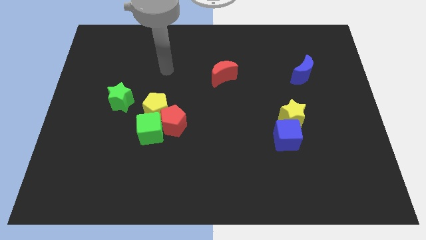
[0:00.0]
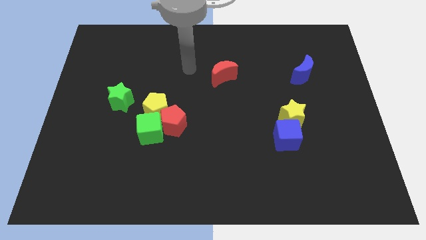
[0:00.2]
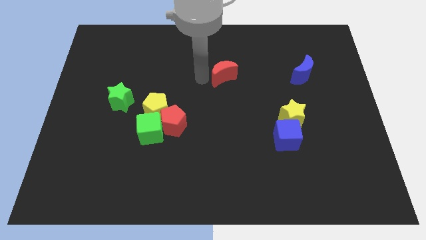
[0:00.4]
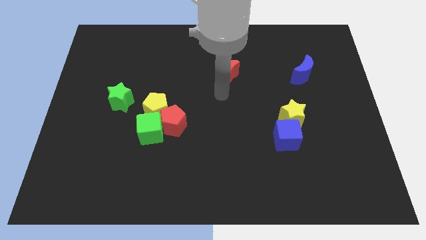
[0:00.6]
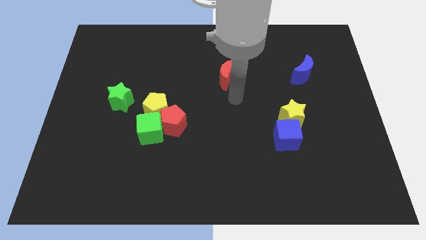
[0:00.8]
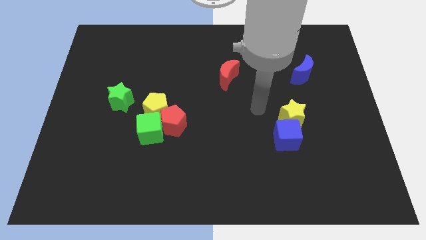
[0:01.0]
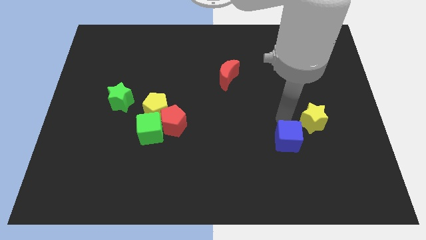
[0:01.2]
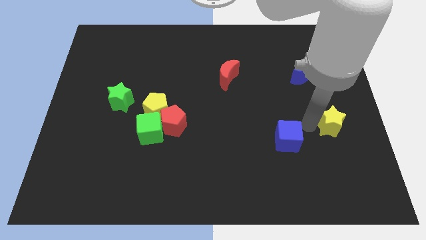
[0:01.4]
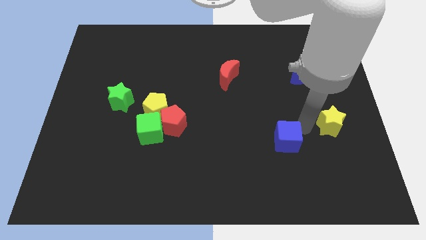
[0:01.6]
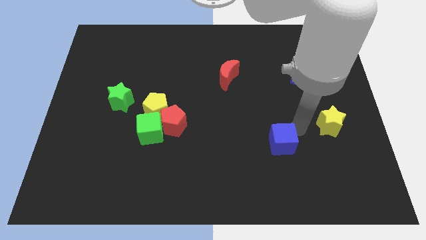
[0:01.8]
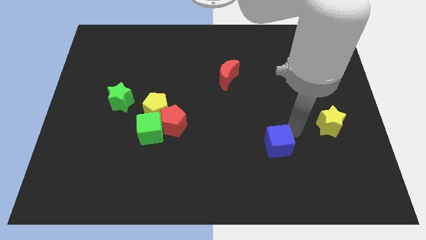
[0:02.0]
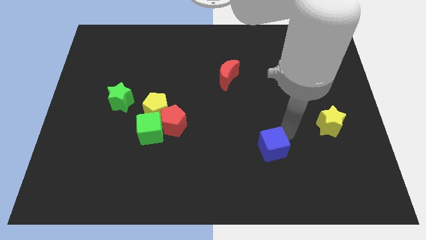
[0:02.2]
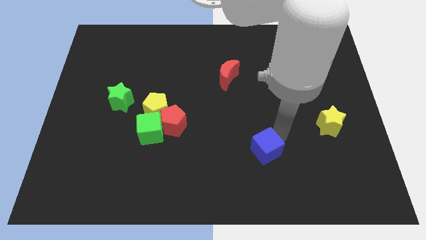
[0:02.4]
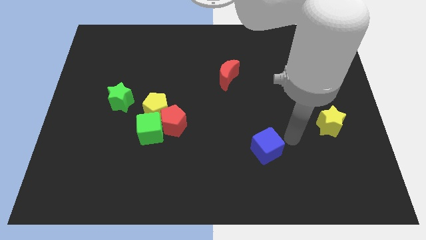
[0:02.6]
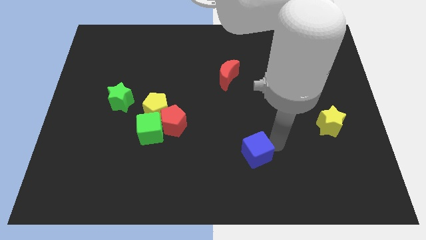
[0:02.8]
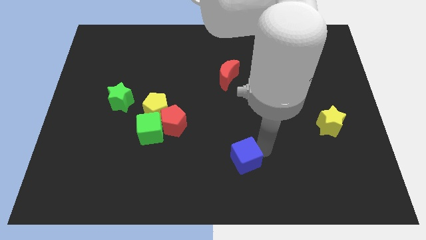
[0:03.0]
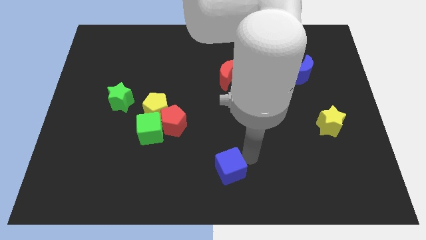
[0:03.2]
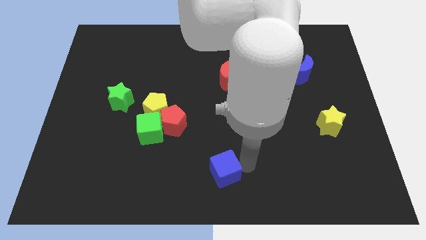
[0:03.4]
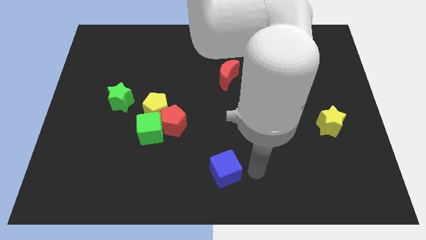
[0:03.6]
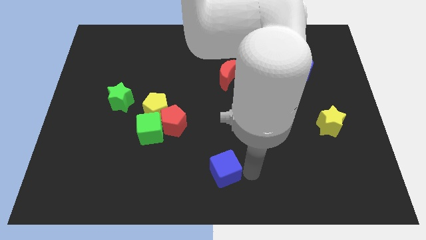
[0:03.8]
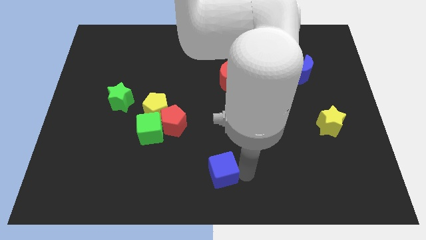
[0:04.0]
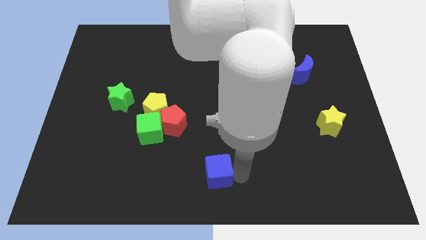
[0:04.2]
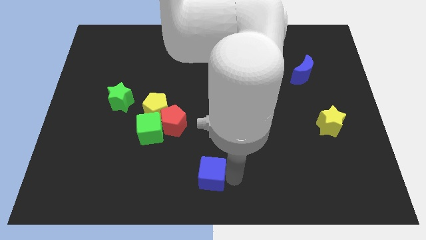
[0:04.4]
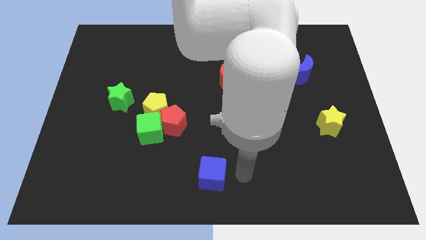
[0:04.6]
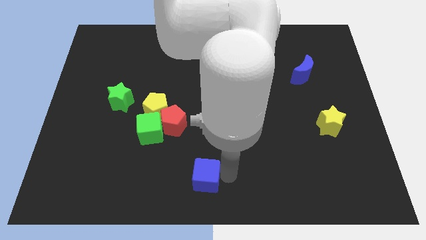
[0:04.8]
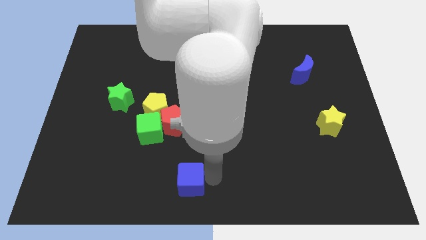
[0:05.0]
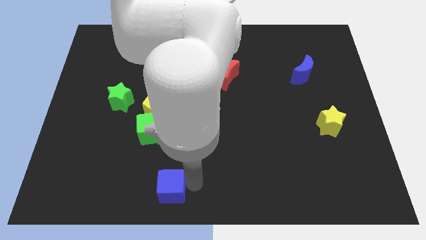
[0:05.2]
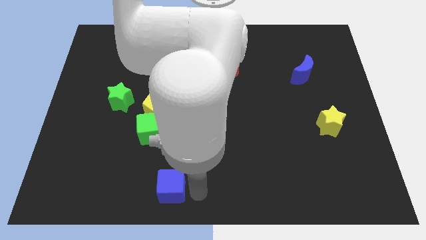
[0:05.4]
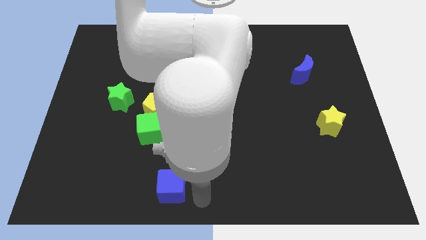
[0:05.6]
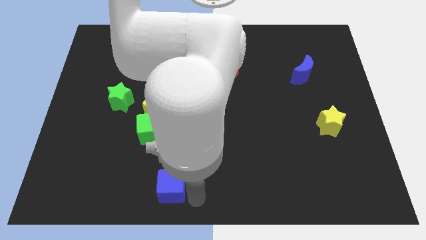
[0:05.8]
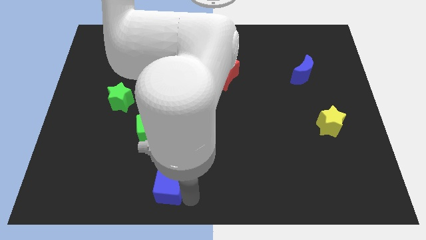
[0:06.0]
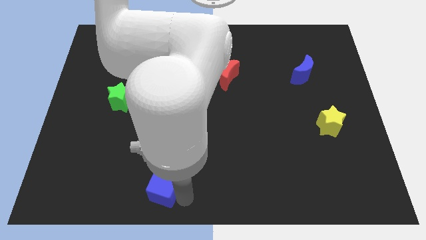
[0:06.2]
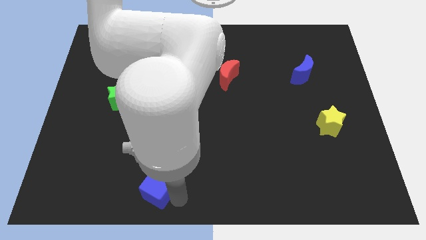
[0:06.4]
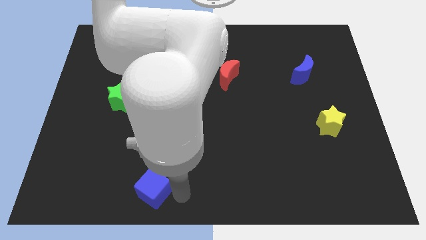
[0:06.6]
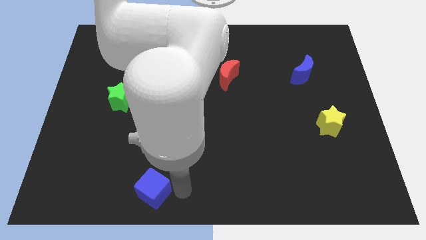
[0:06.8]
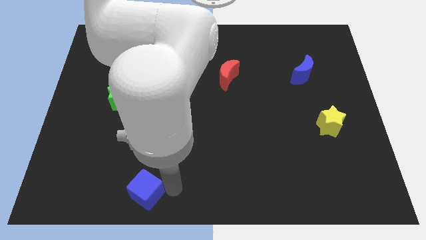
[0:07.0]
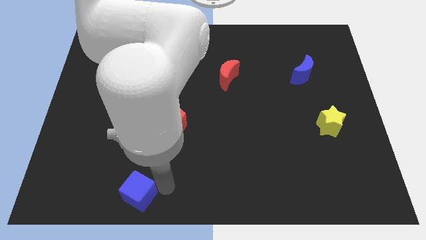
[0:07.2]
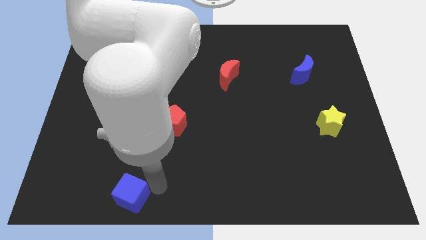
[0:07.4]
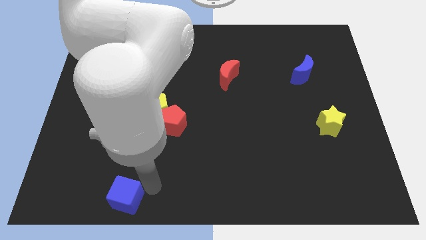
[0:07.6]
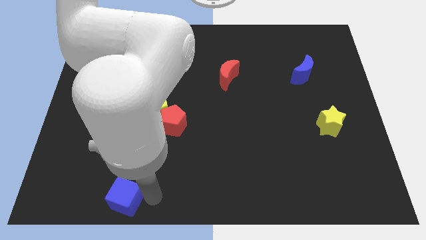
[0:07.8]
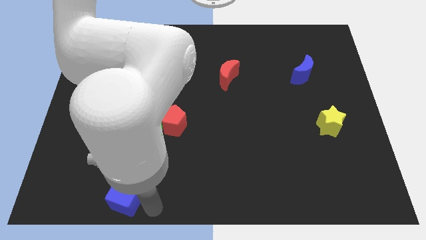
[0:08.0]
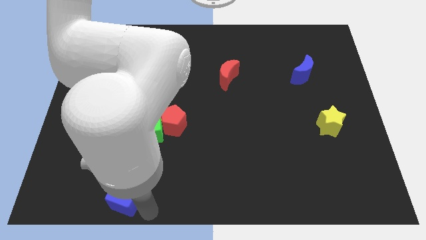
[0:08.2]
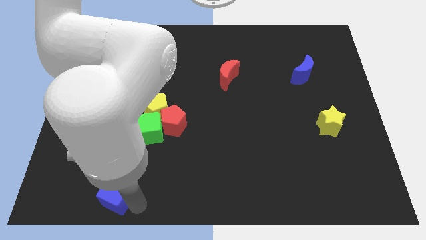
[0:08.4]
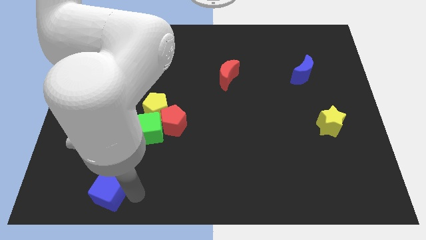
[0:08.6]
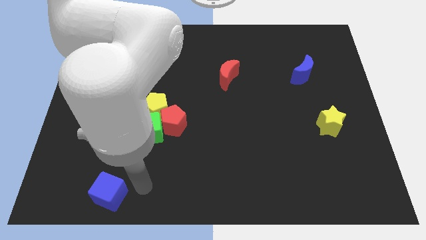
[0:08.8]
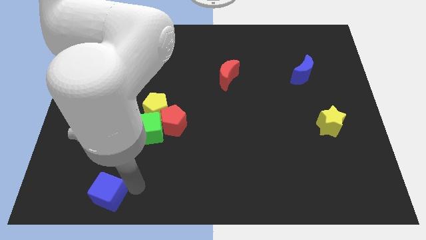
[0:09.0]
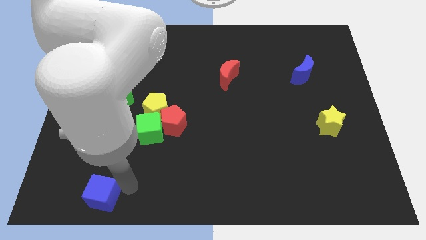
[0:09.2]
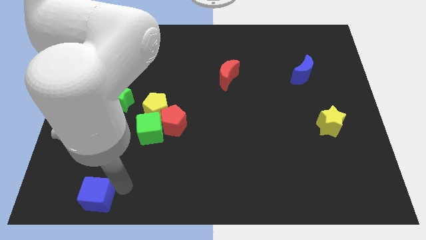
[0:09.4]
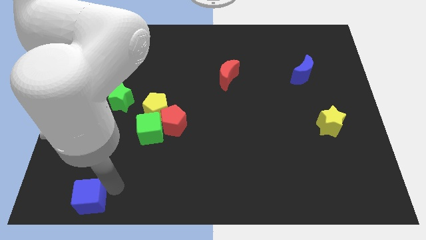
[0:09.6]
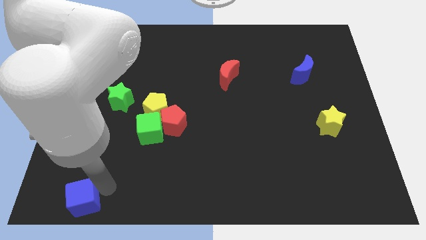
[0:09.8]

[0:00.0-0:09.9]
put the blue cube to the bottom left

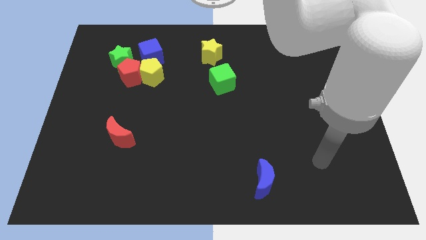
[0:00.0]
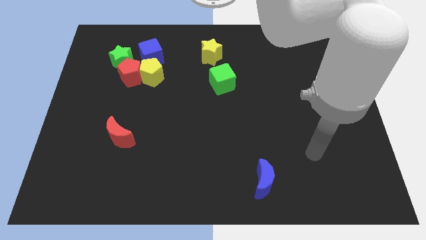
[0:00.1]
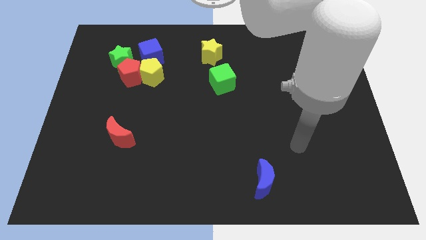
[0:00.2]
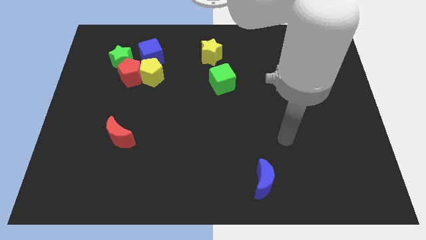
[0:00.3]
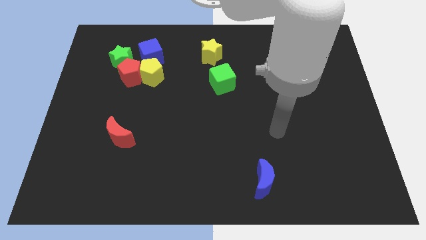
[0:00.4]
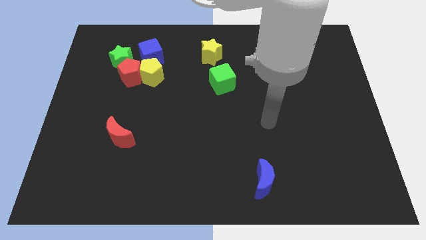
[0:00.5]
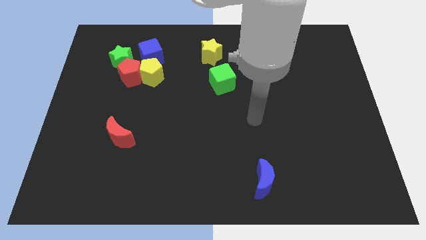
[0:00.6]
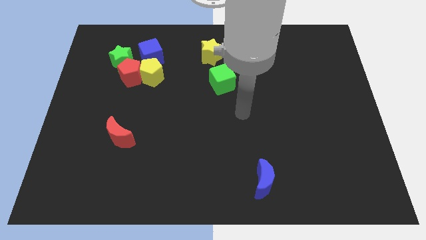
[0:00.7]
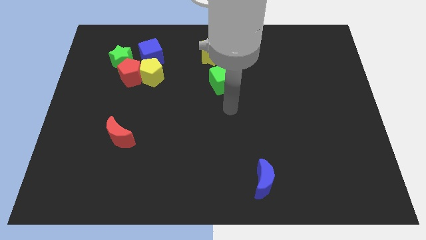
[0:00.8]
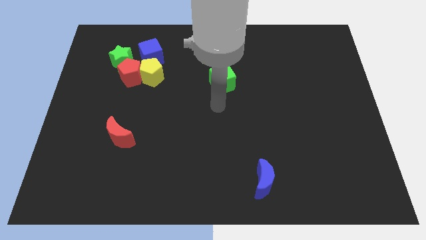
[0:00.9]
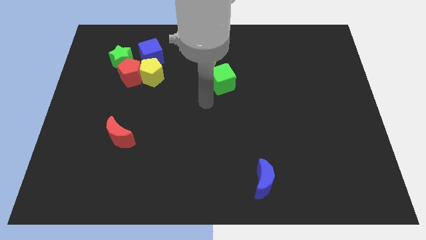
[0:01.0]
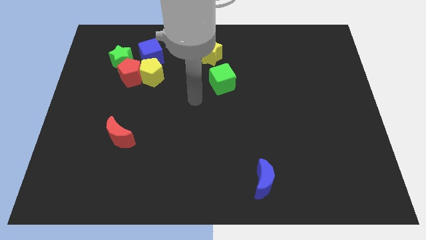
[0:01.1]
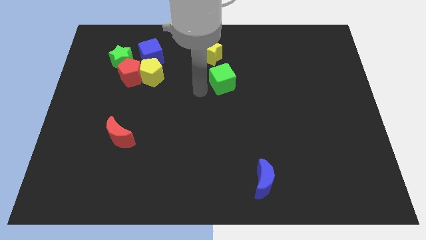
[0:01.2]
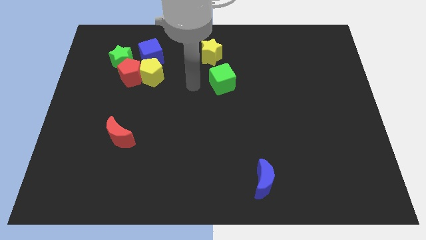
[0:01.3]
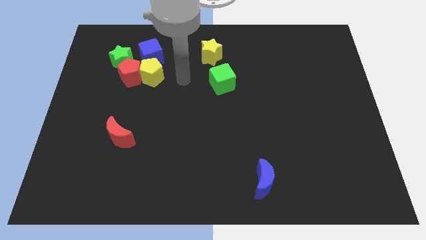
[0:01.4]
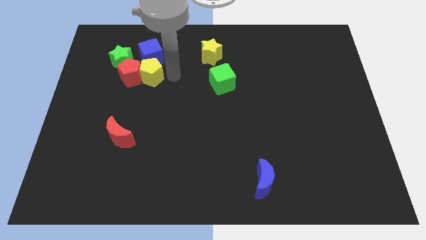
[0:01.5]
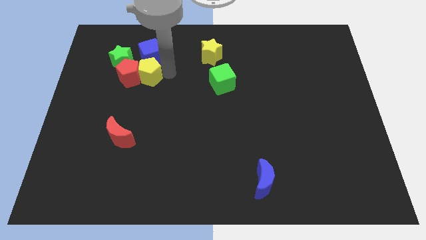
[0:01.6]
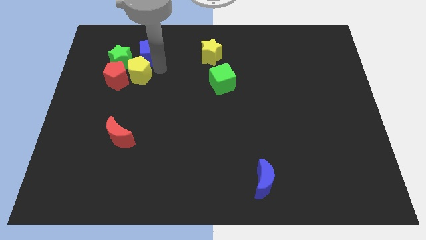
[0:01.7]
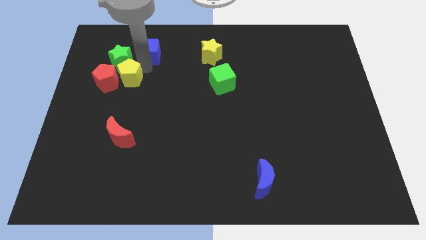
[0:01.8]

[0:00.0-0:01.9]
put the red pentagon to the center left
